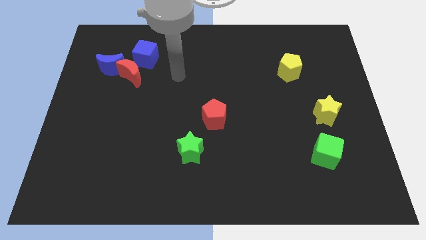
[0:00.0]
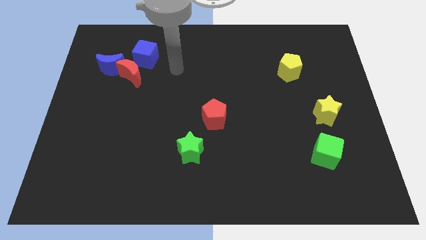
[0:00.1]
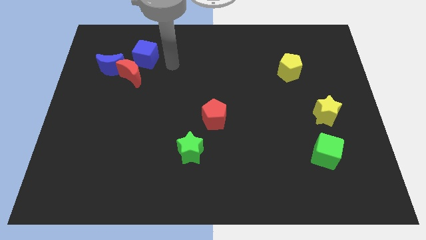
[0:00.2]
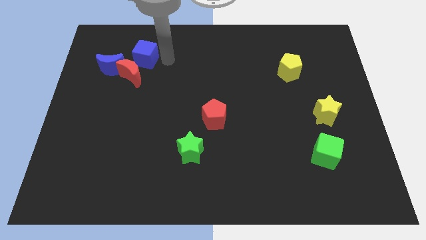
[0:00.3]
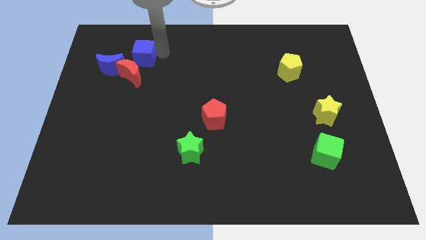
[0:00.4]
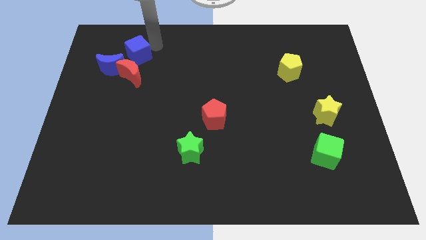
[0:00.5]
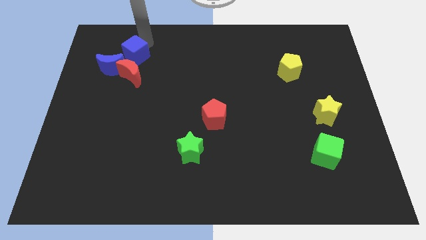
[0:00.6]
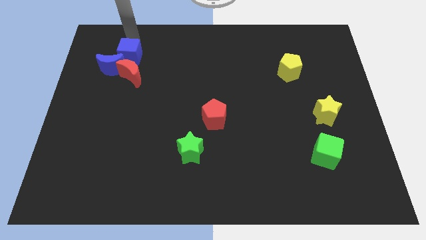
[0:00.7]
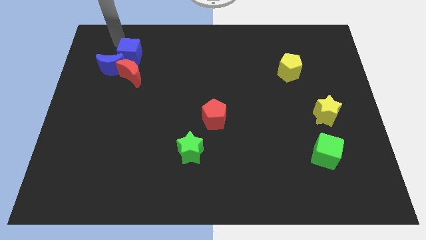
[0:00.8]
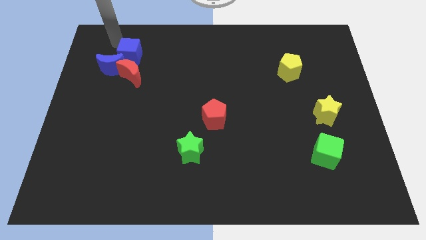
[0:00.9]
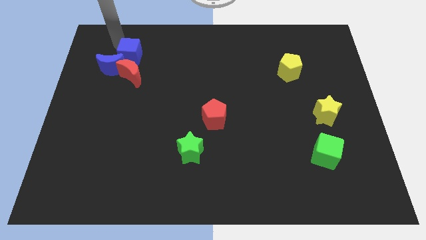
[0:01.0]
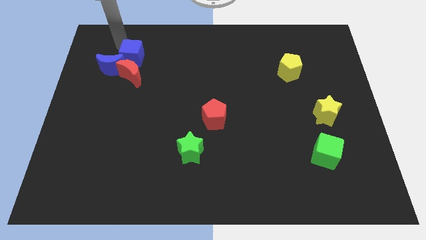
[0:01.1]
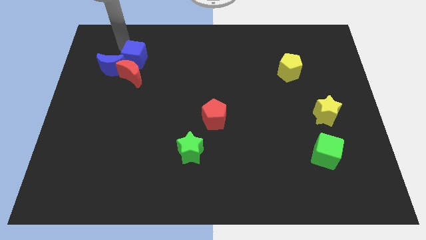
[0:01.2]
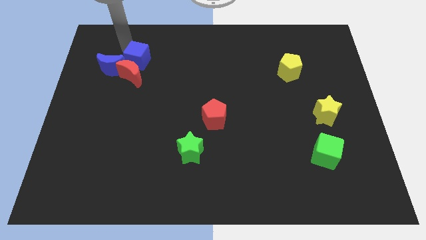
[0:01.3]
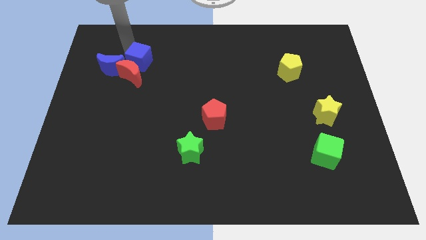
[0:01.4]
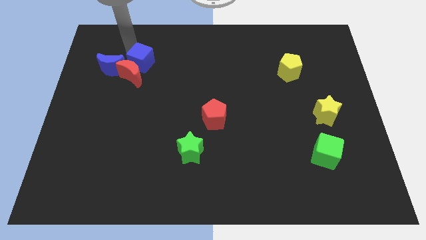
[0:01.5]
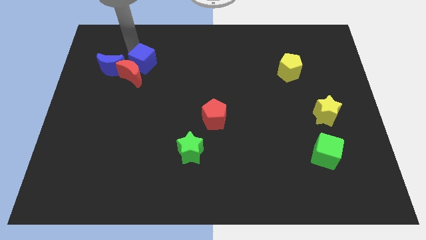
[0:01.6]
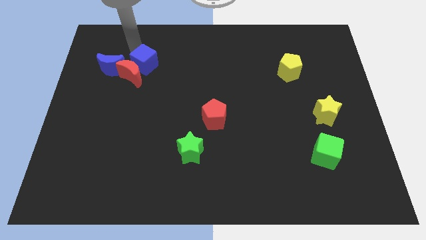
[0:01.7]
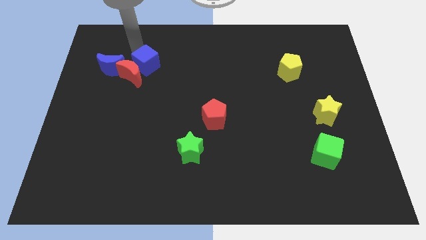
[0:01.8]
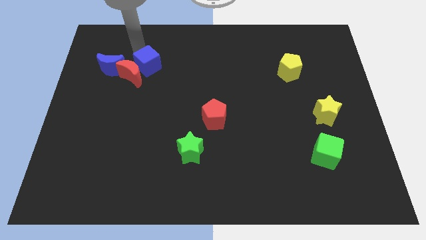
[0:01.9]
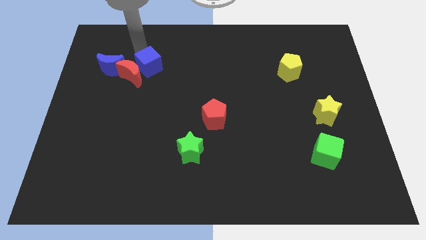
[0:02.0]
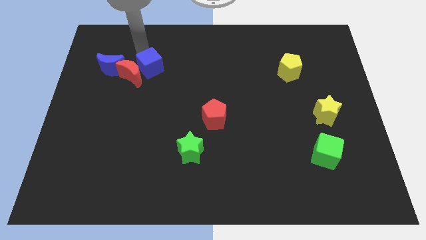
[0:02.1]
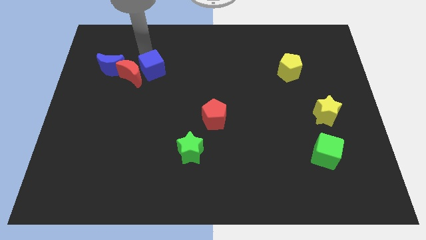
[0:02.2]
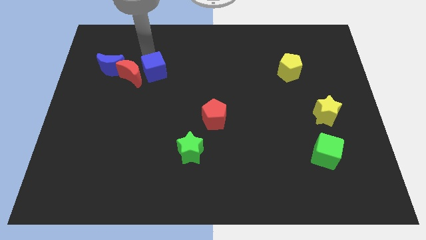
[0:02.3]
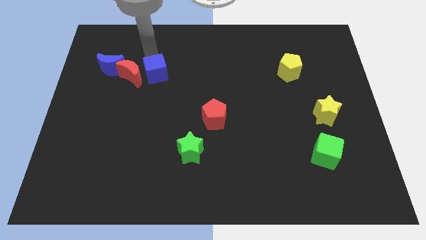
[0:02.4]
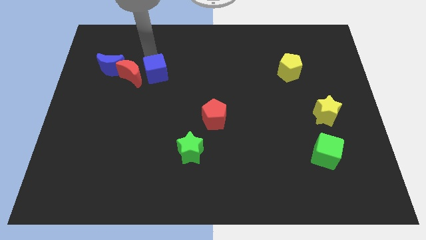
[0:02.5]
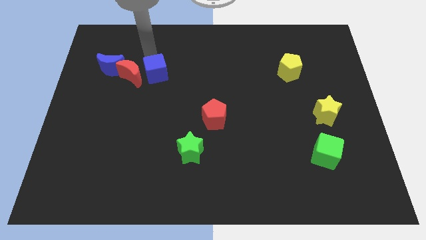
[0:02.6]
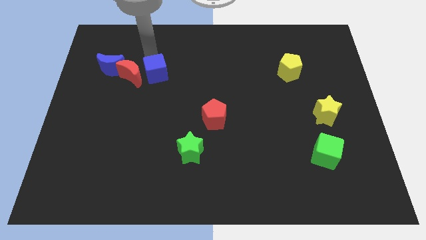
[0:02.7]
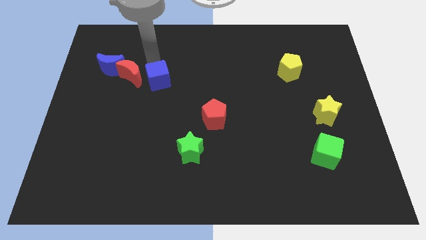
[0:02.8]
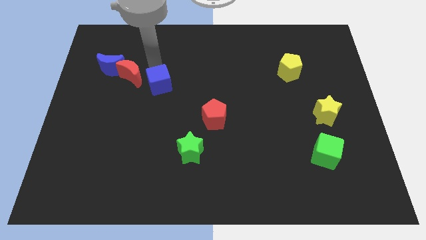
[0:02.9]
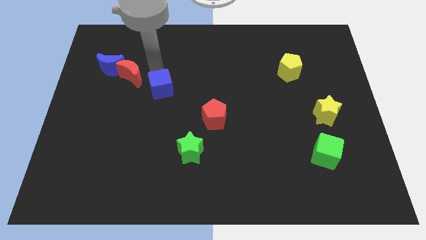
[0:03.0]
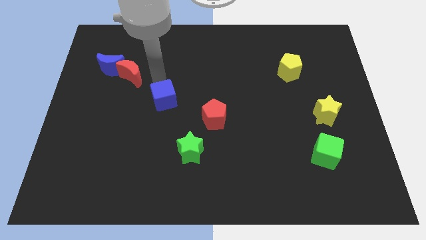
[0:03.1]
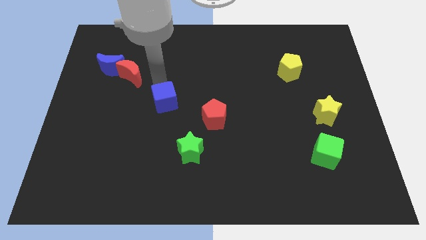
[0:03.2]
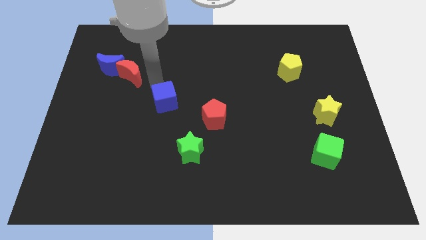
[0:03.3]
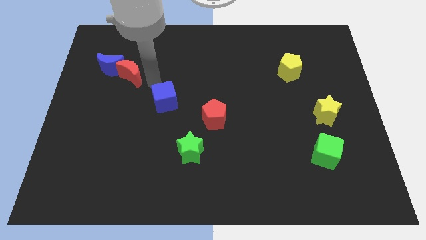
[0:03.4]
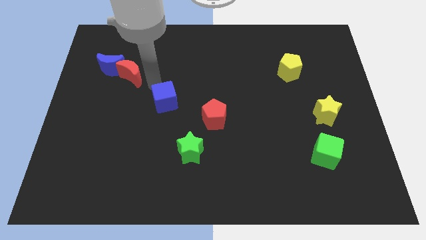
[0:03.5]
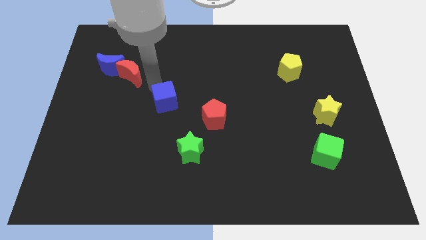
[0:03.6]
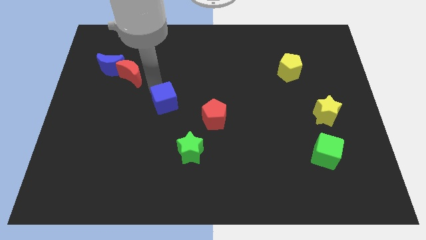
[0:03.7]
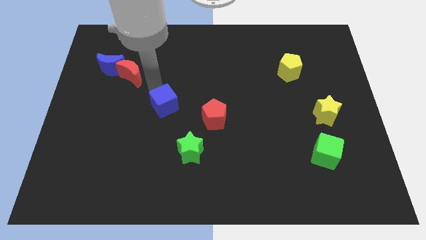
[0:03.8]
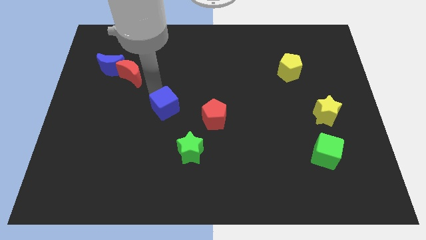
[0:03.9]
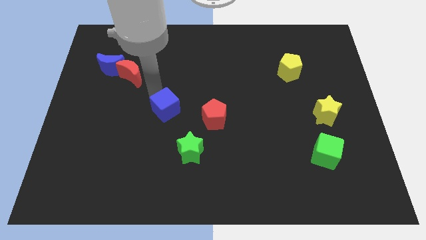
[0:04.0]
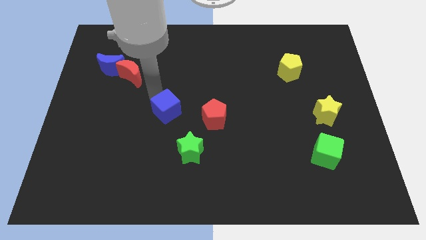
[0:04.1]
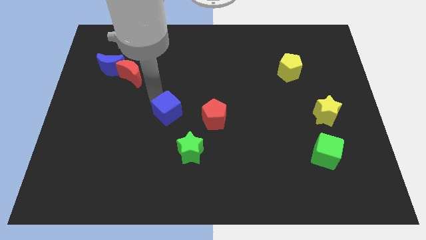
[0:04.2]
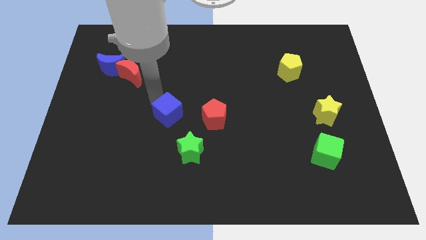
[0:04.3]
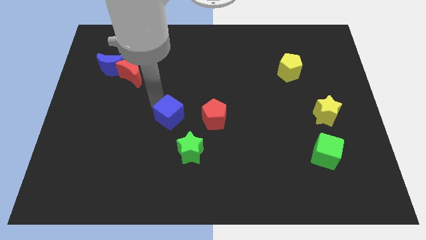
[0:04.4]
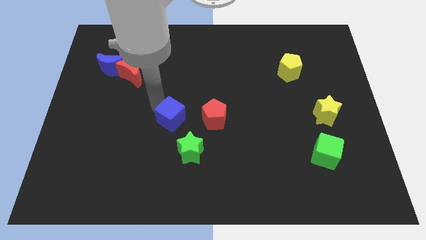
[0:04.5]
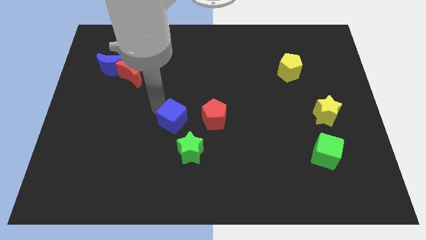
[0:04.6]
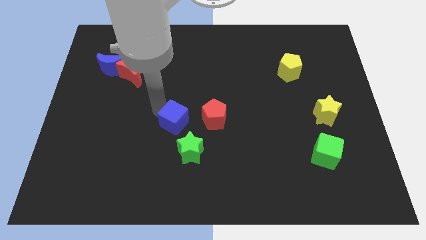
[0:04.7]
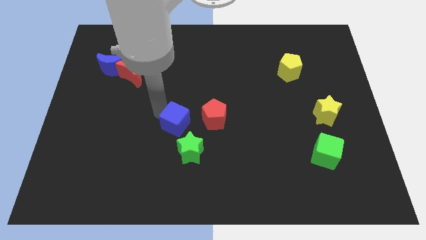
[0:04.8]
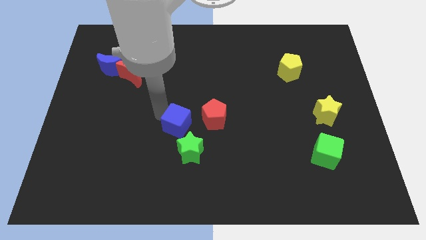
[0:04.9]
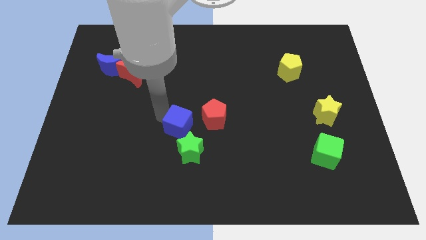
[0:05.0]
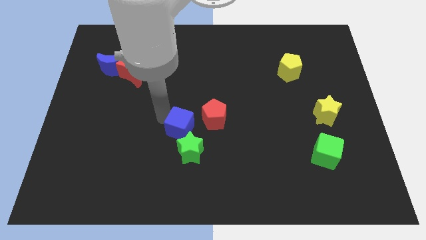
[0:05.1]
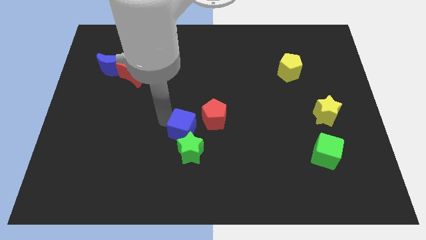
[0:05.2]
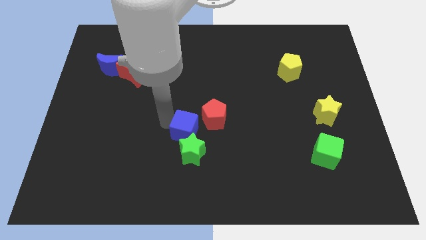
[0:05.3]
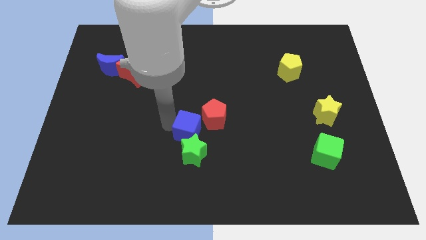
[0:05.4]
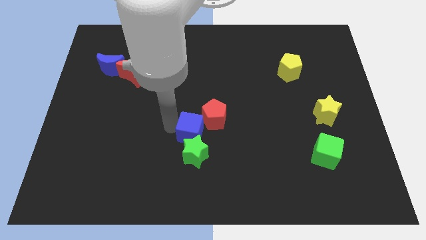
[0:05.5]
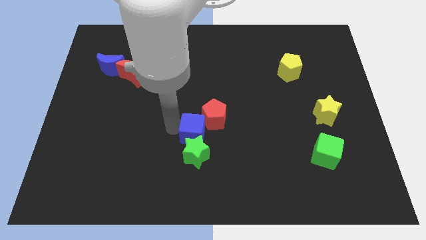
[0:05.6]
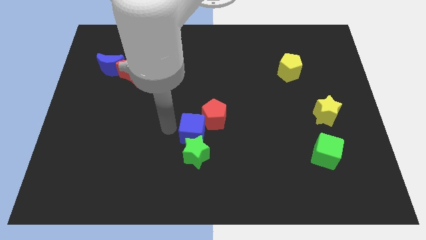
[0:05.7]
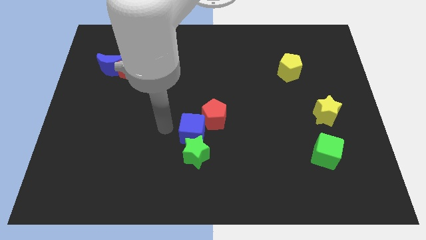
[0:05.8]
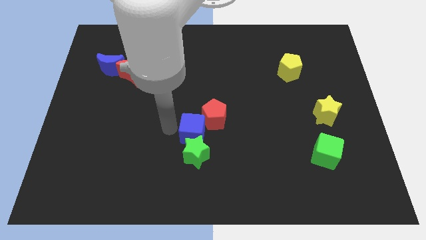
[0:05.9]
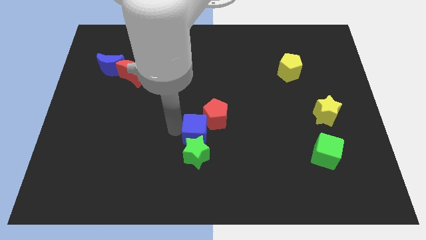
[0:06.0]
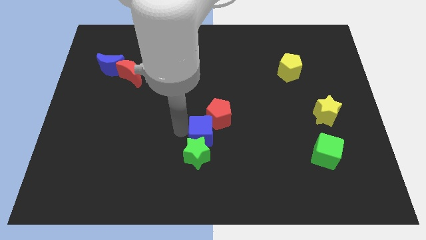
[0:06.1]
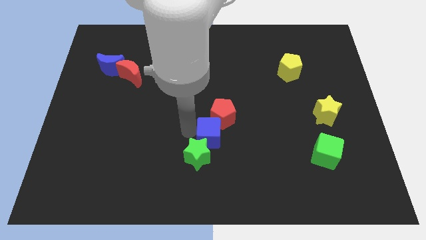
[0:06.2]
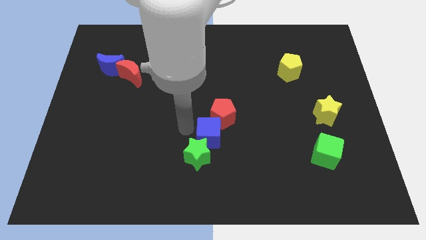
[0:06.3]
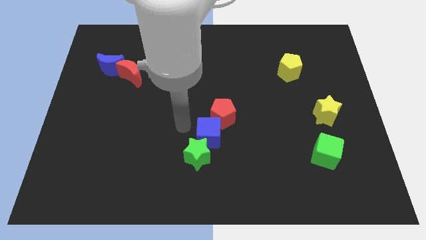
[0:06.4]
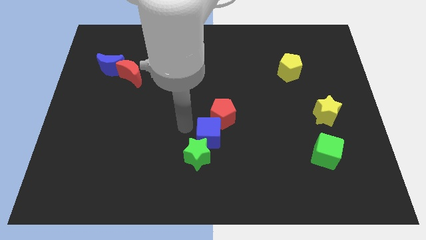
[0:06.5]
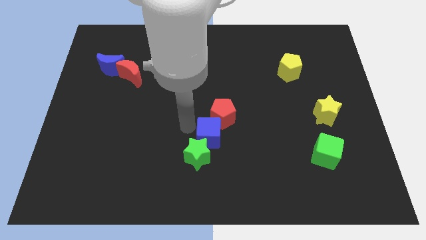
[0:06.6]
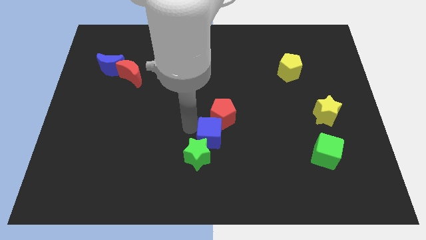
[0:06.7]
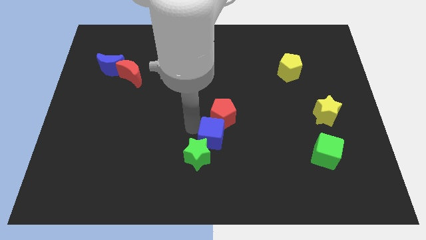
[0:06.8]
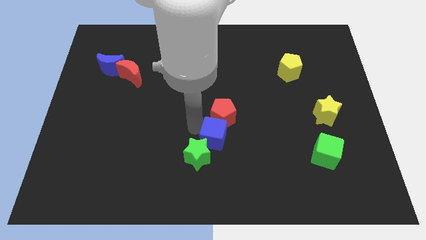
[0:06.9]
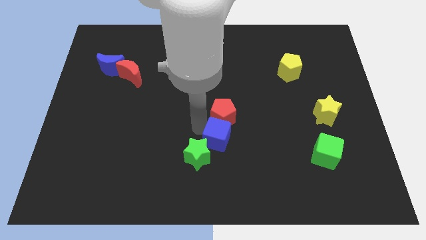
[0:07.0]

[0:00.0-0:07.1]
move the blue cube just right of the green star
